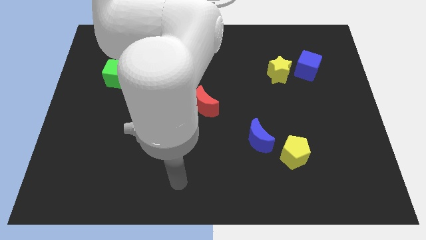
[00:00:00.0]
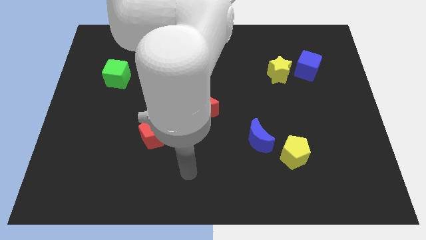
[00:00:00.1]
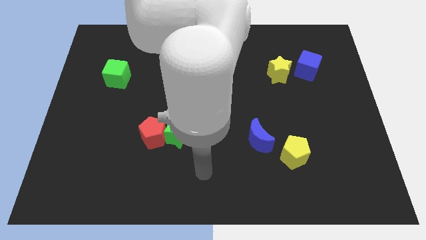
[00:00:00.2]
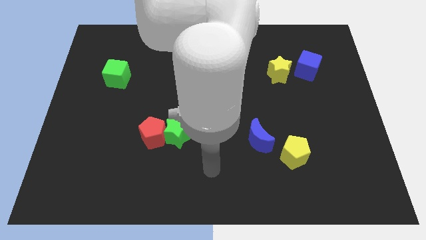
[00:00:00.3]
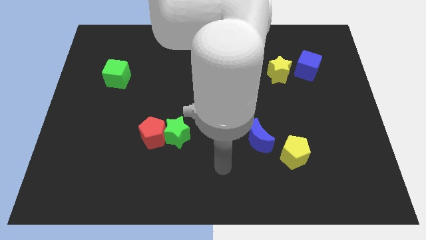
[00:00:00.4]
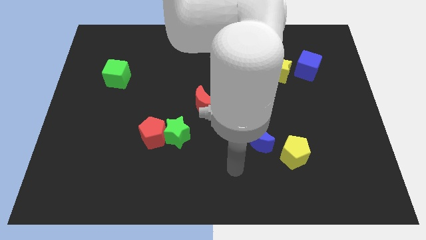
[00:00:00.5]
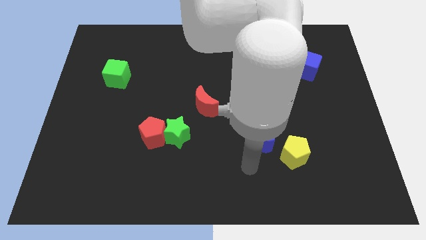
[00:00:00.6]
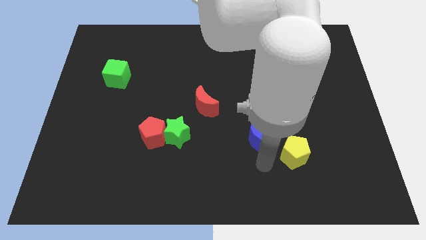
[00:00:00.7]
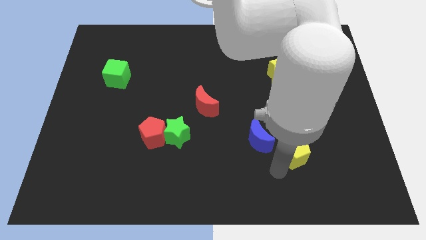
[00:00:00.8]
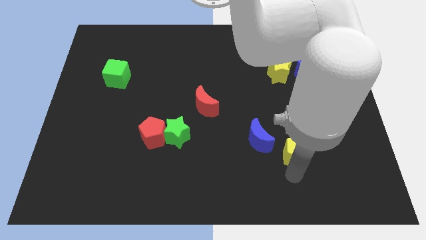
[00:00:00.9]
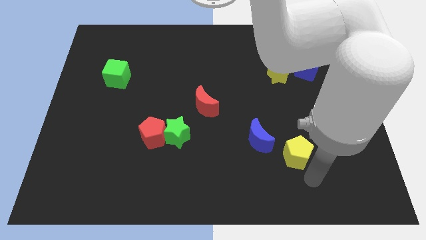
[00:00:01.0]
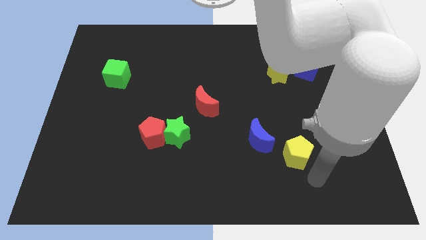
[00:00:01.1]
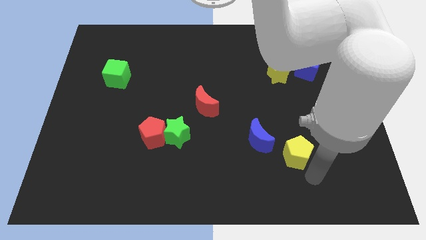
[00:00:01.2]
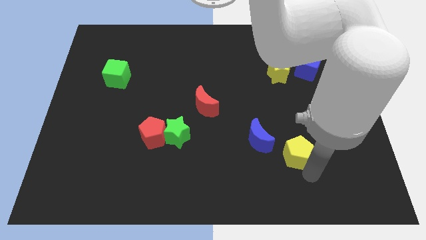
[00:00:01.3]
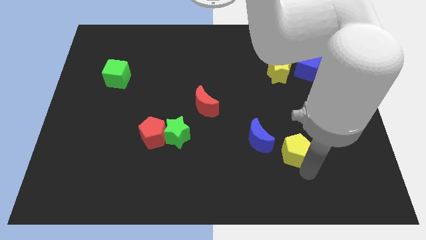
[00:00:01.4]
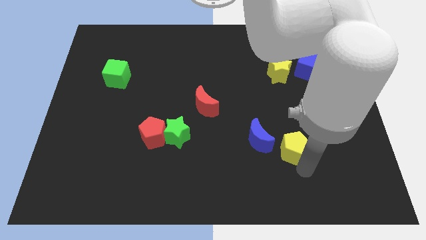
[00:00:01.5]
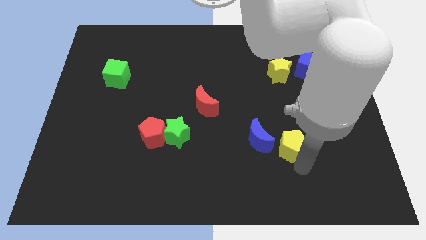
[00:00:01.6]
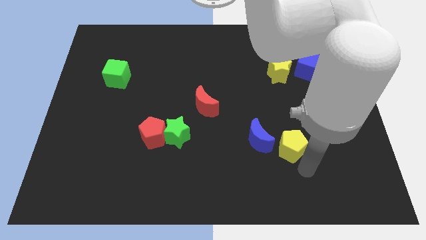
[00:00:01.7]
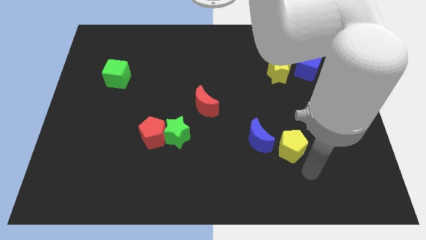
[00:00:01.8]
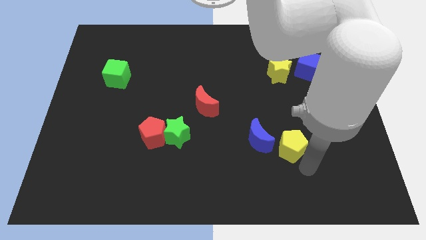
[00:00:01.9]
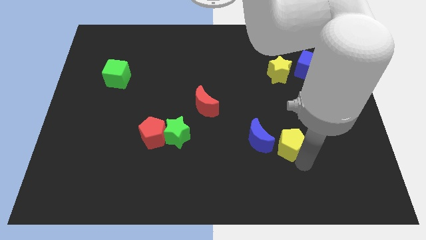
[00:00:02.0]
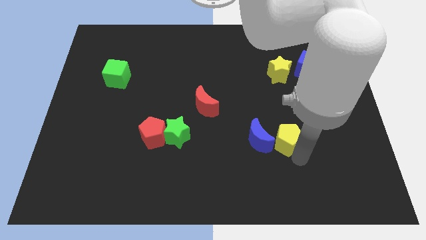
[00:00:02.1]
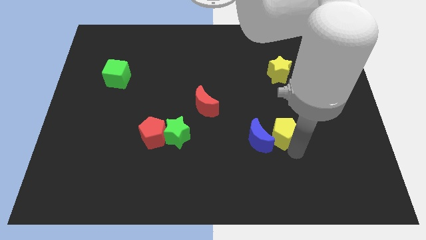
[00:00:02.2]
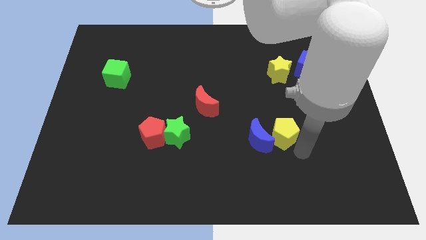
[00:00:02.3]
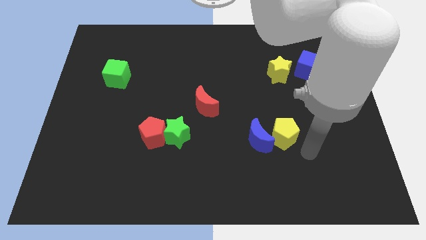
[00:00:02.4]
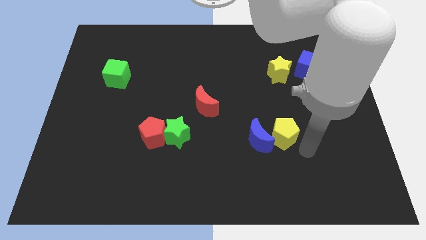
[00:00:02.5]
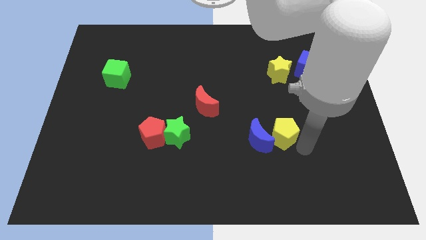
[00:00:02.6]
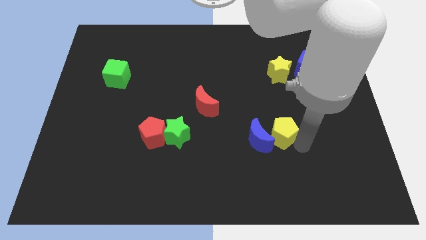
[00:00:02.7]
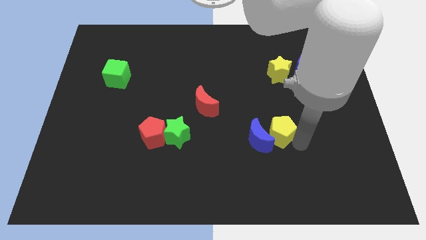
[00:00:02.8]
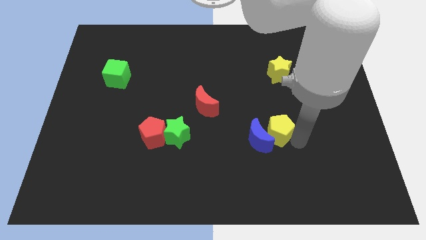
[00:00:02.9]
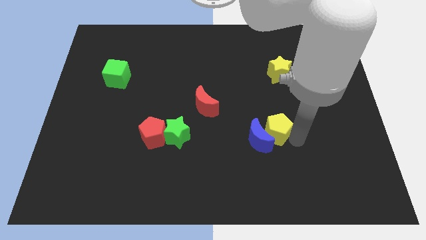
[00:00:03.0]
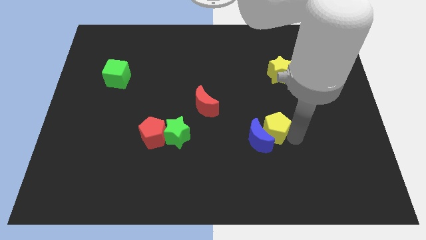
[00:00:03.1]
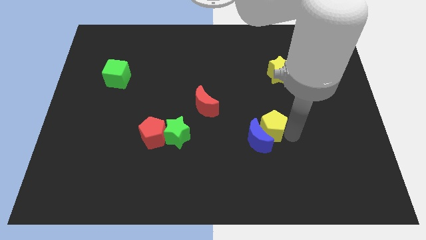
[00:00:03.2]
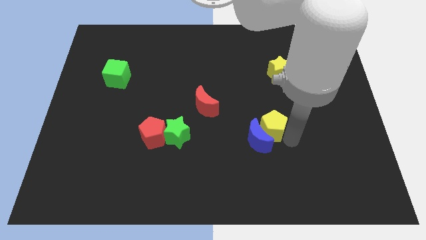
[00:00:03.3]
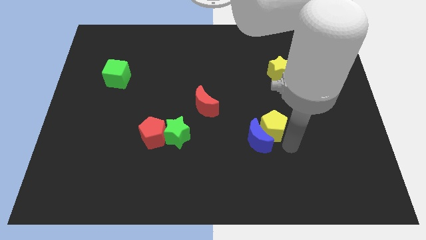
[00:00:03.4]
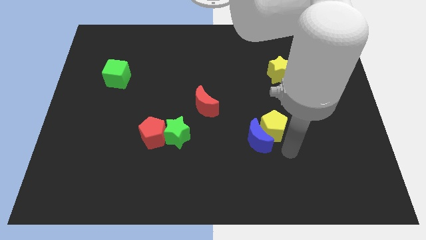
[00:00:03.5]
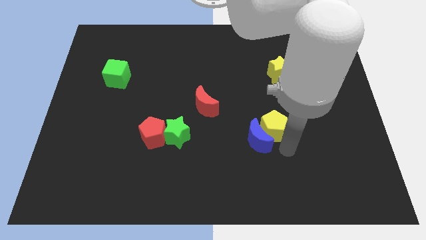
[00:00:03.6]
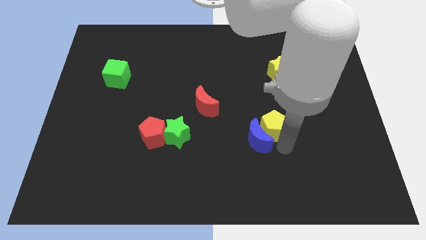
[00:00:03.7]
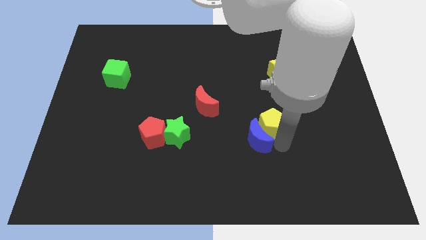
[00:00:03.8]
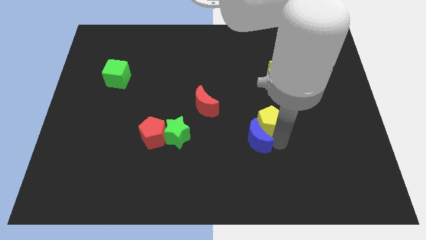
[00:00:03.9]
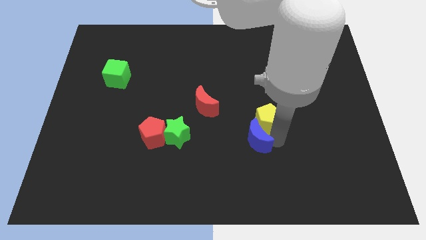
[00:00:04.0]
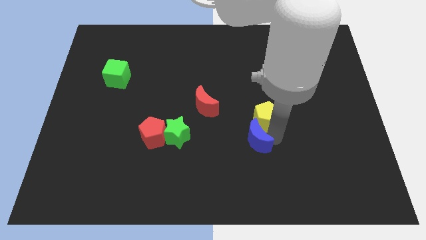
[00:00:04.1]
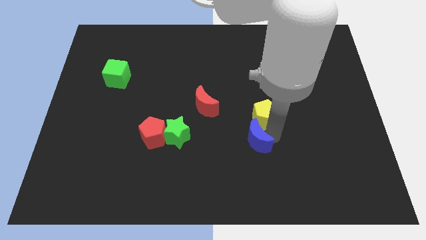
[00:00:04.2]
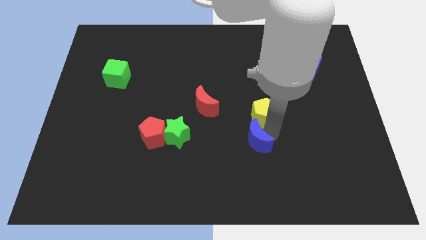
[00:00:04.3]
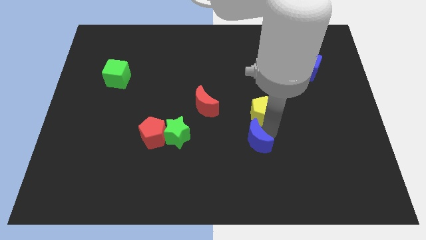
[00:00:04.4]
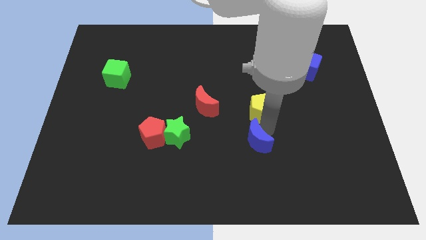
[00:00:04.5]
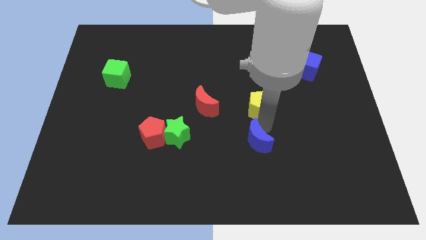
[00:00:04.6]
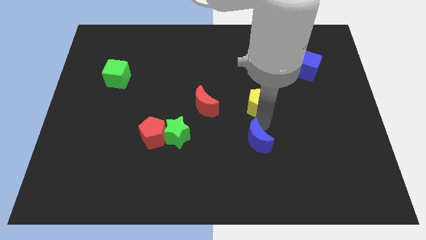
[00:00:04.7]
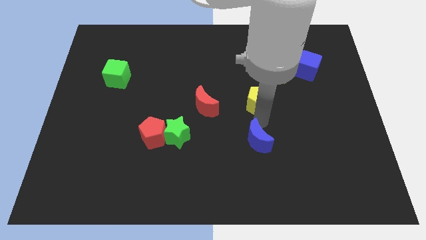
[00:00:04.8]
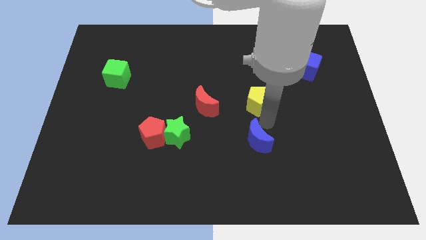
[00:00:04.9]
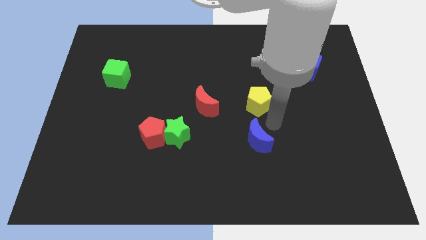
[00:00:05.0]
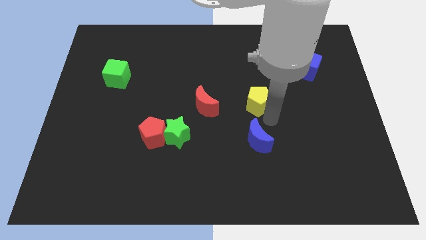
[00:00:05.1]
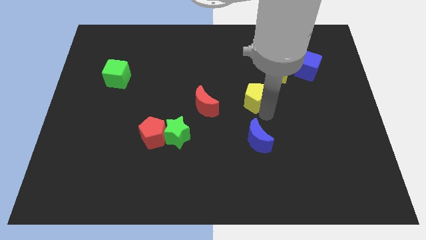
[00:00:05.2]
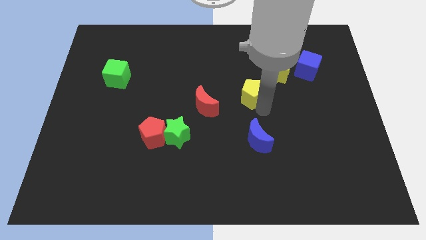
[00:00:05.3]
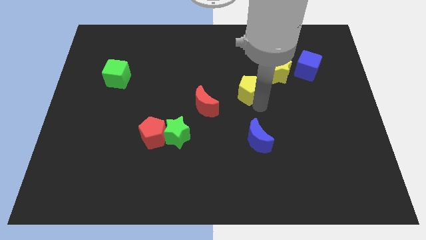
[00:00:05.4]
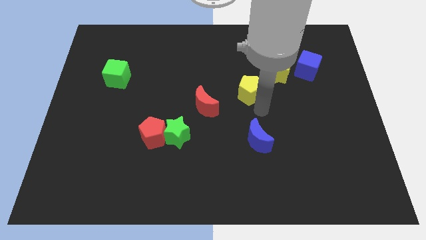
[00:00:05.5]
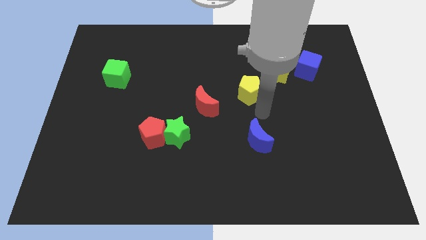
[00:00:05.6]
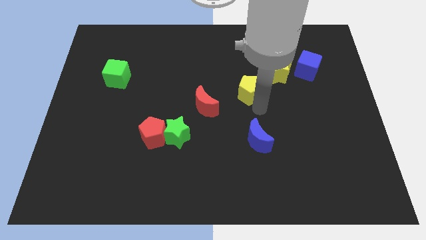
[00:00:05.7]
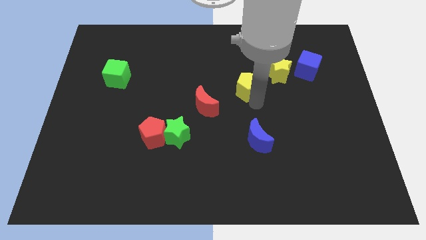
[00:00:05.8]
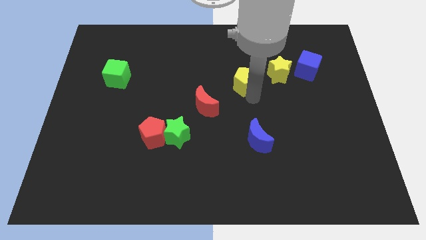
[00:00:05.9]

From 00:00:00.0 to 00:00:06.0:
put the yellow pentagon just left of the yellow star

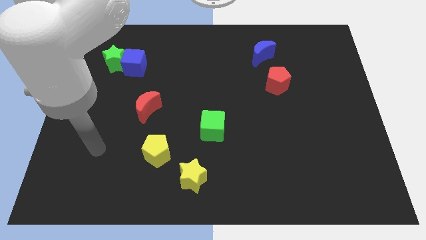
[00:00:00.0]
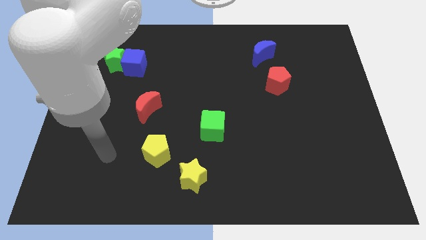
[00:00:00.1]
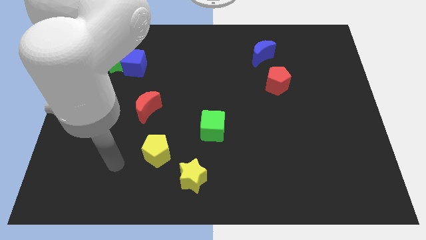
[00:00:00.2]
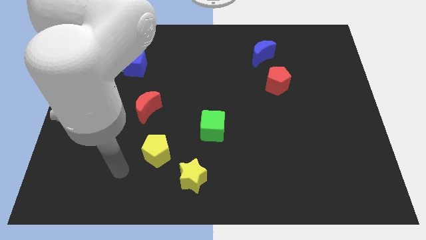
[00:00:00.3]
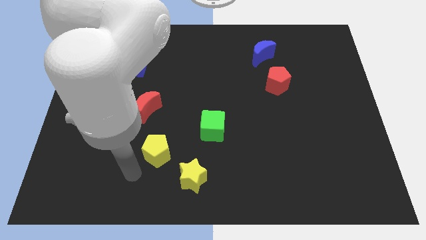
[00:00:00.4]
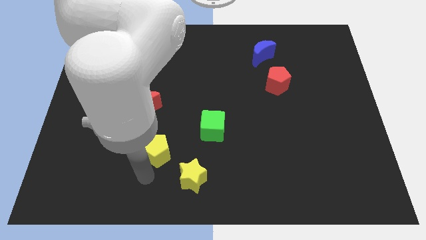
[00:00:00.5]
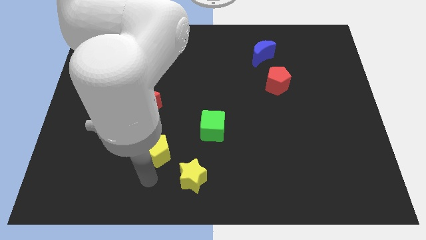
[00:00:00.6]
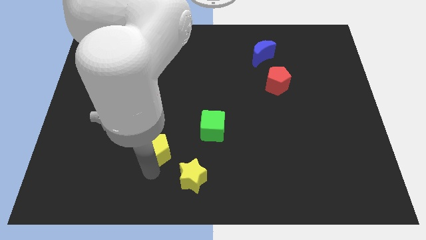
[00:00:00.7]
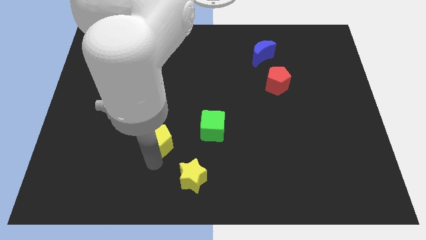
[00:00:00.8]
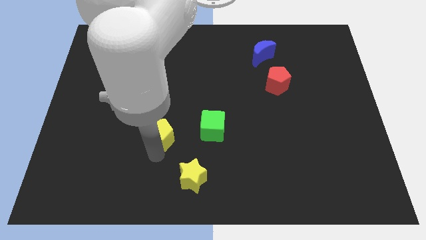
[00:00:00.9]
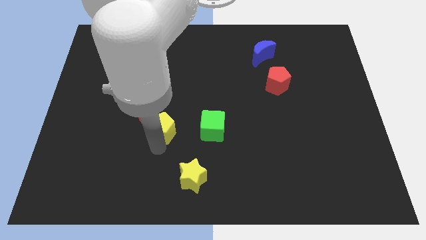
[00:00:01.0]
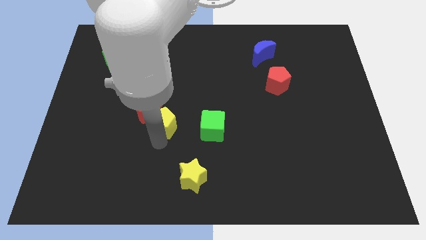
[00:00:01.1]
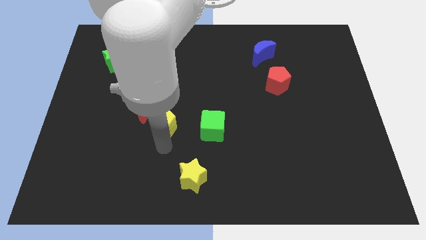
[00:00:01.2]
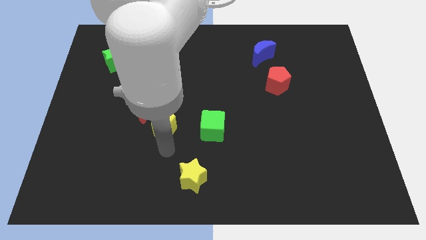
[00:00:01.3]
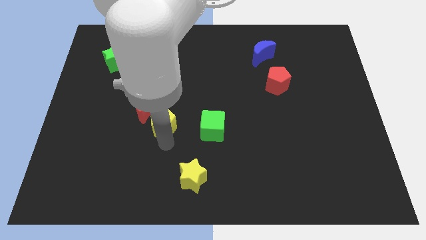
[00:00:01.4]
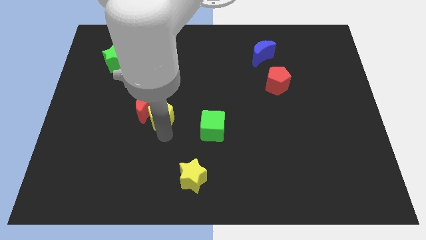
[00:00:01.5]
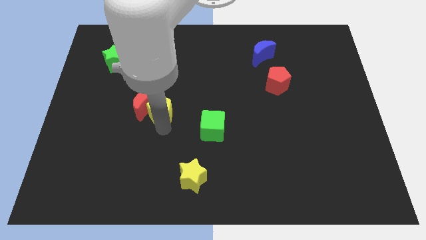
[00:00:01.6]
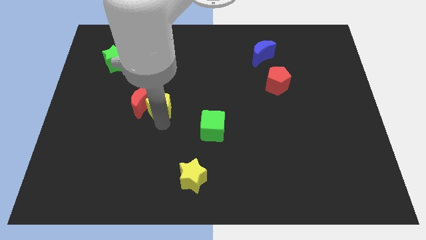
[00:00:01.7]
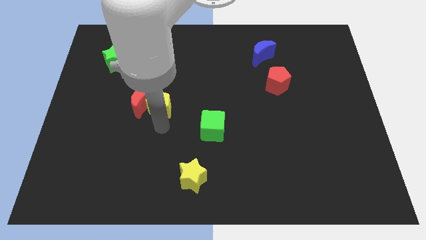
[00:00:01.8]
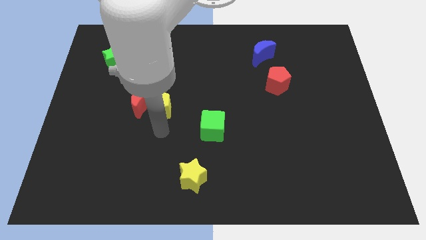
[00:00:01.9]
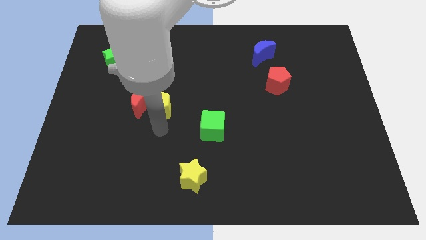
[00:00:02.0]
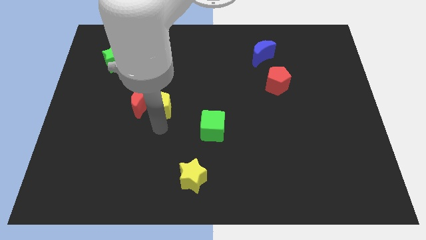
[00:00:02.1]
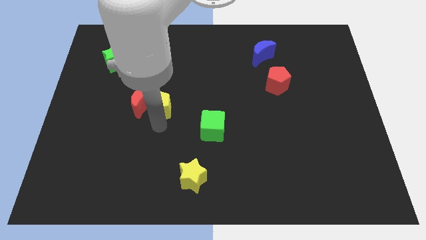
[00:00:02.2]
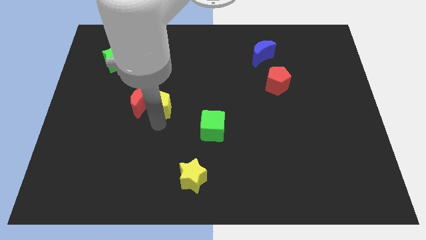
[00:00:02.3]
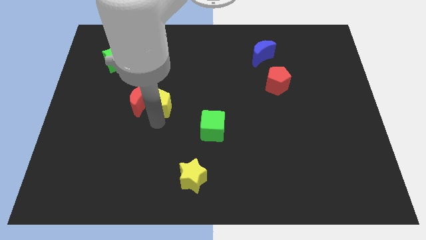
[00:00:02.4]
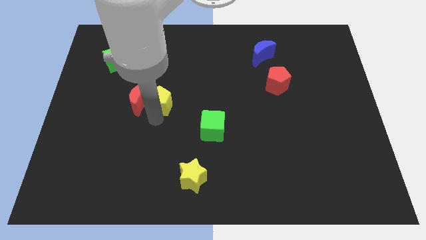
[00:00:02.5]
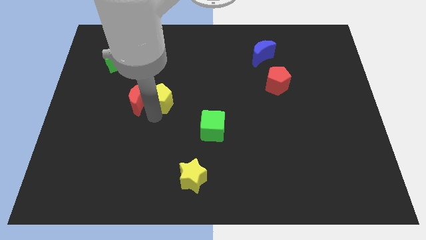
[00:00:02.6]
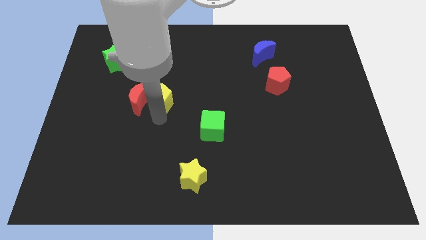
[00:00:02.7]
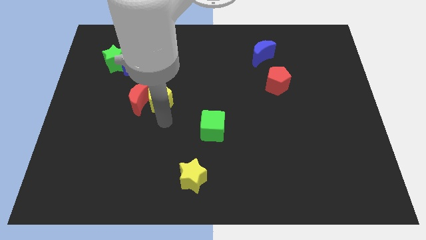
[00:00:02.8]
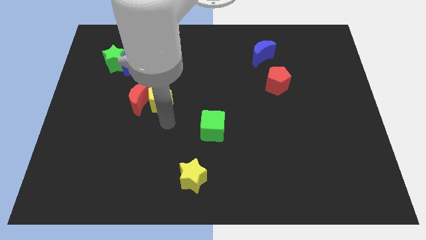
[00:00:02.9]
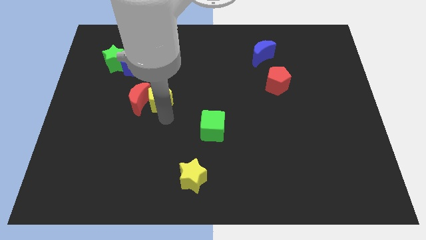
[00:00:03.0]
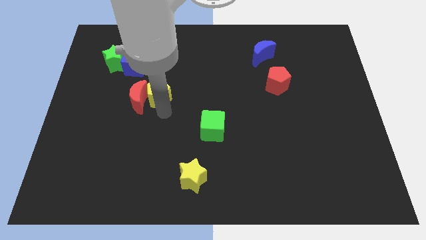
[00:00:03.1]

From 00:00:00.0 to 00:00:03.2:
move the yellow pentagon to the bottom right side of the blue cube
